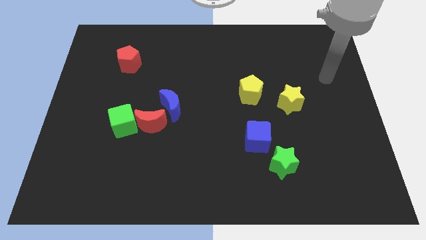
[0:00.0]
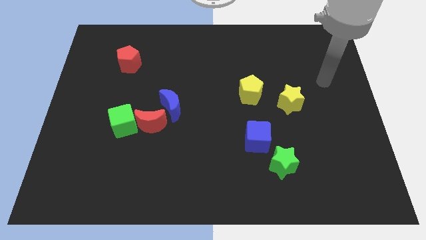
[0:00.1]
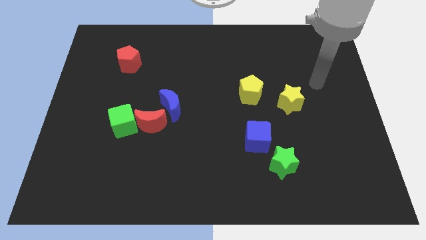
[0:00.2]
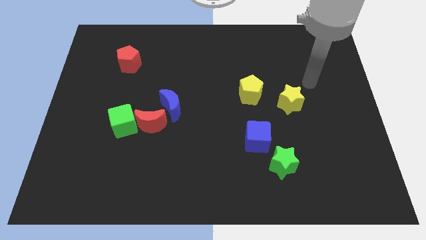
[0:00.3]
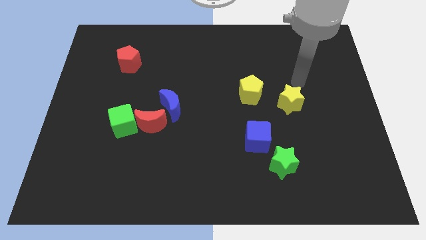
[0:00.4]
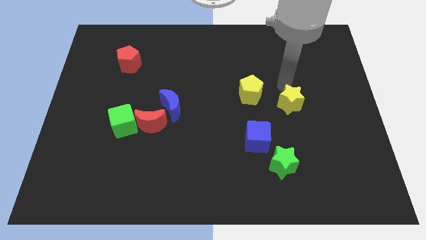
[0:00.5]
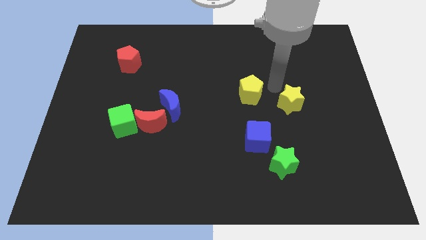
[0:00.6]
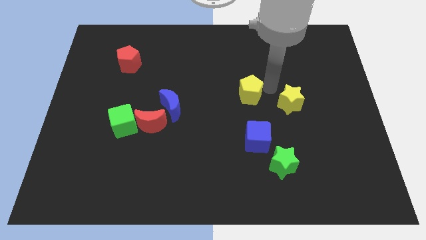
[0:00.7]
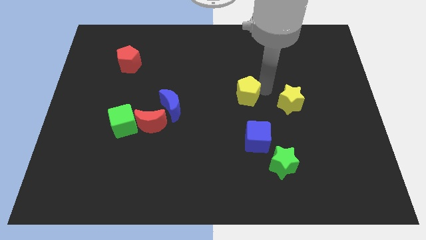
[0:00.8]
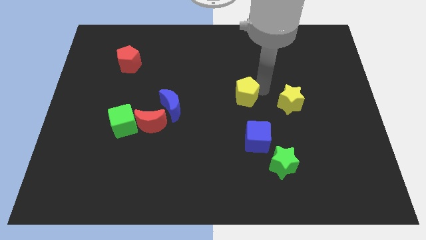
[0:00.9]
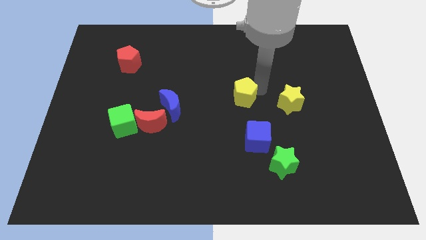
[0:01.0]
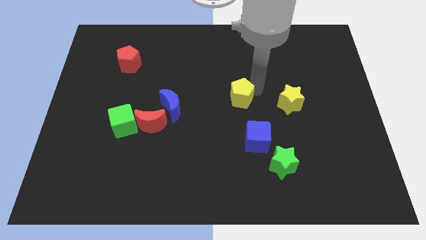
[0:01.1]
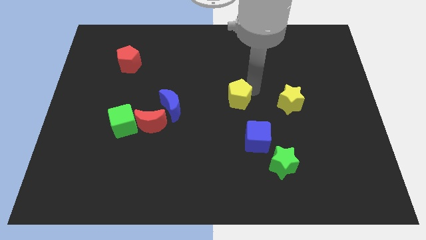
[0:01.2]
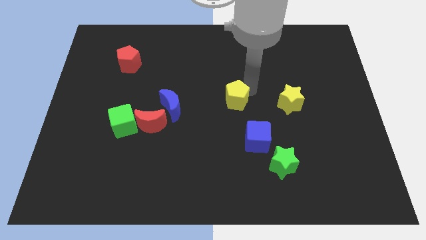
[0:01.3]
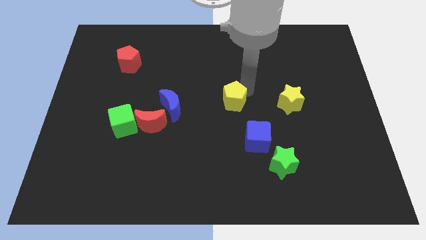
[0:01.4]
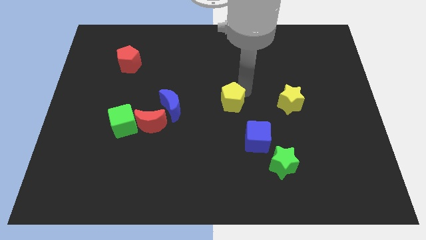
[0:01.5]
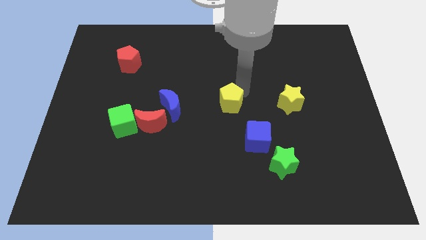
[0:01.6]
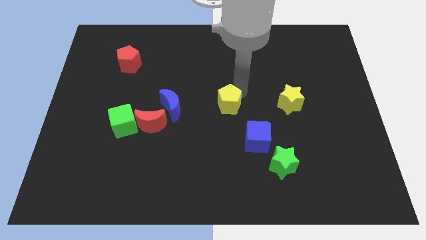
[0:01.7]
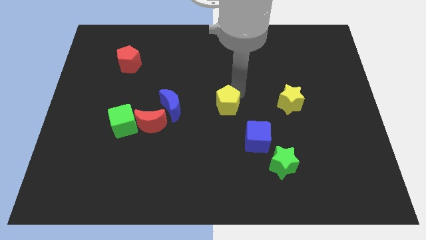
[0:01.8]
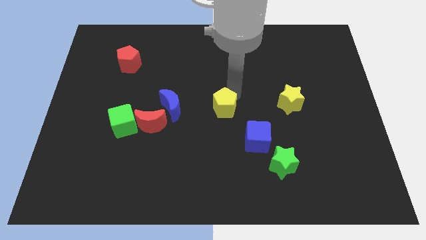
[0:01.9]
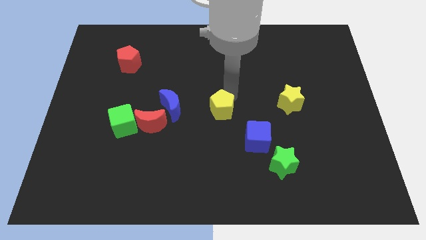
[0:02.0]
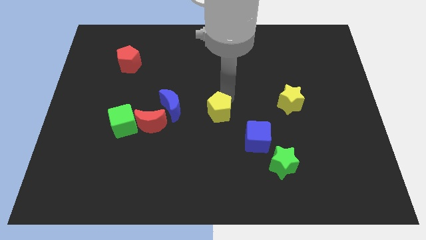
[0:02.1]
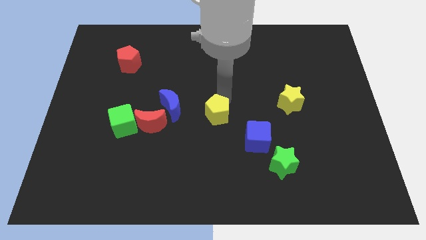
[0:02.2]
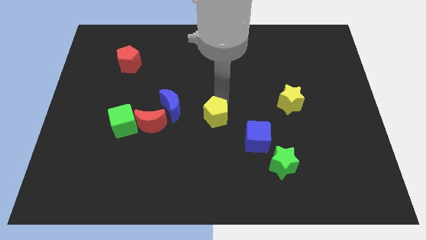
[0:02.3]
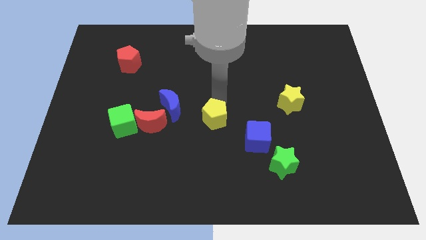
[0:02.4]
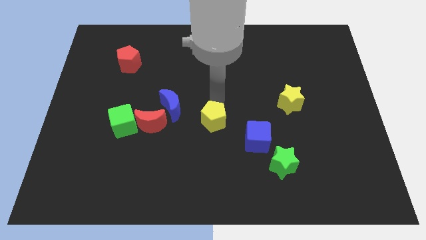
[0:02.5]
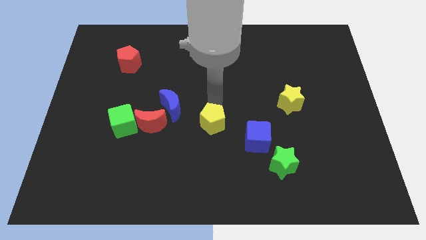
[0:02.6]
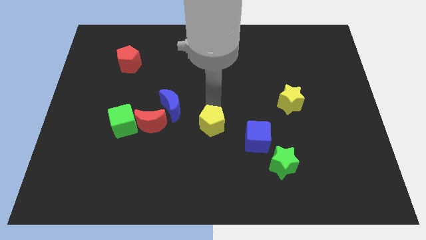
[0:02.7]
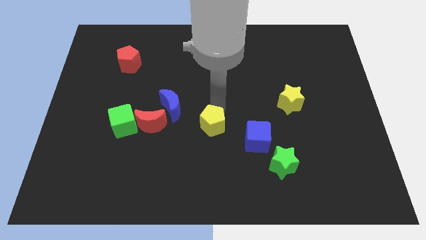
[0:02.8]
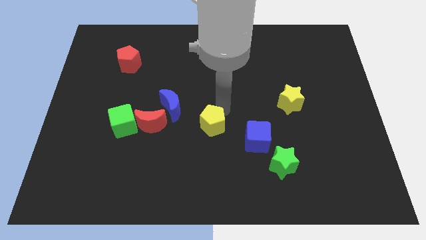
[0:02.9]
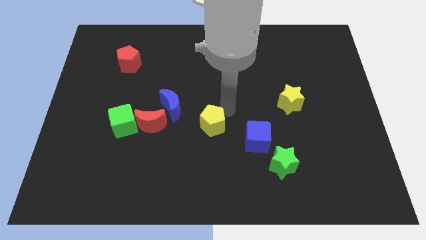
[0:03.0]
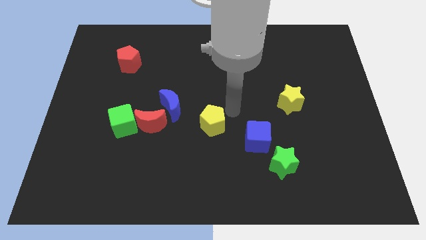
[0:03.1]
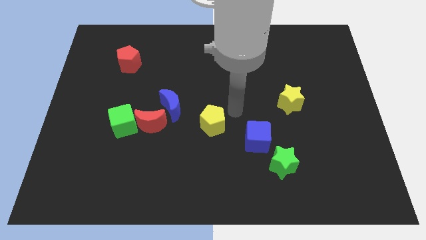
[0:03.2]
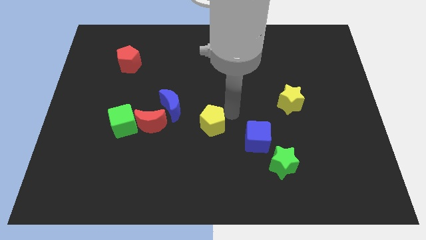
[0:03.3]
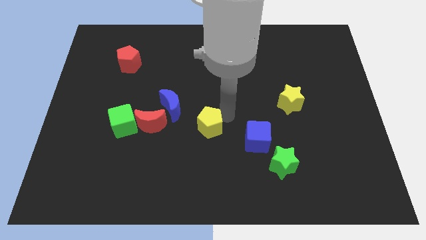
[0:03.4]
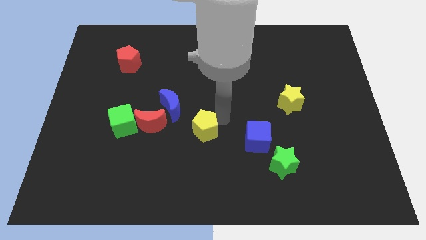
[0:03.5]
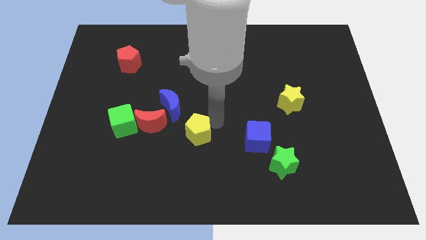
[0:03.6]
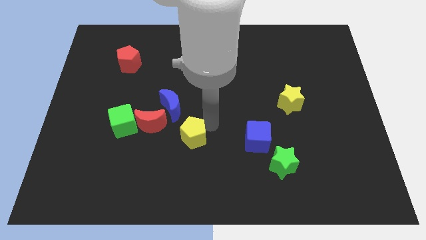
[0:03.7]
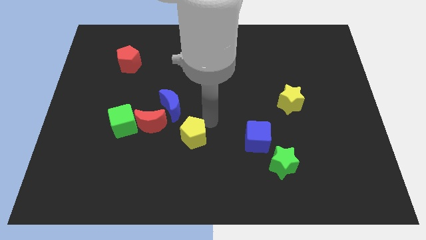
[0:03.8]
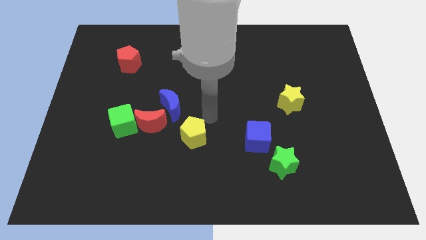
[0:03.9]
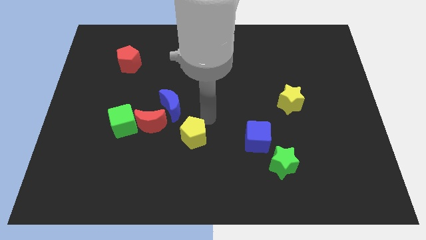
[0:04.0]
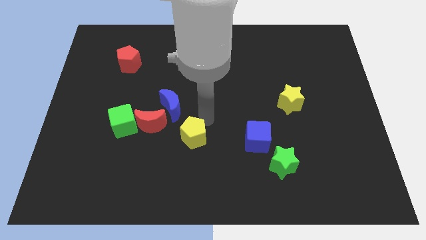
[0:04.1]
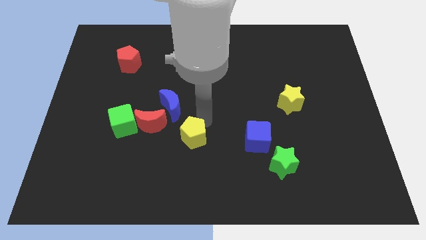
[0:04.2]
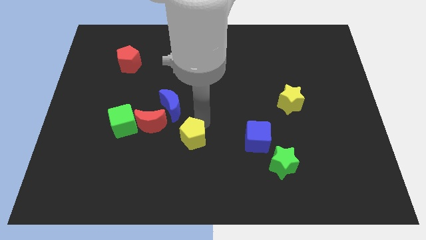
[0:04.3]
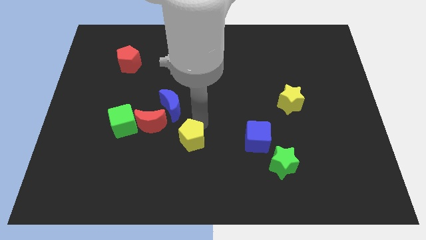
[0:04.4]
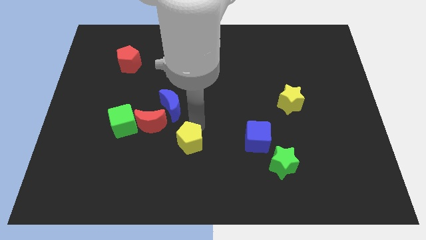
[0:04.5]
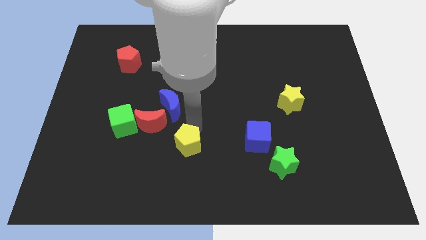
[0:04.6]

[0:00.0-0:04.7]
push the yellow pentagon downwards and left

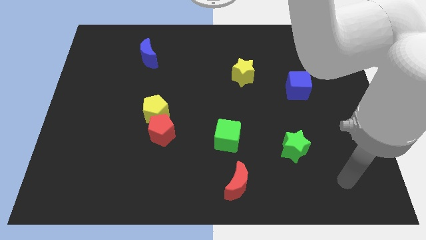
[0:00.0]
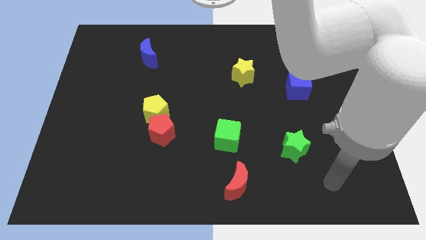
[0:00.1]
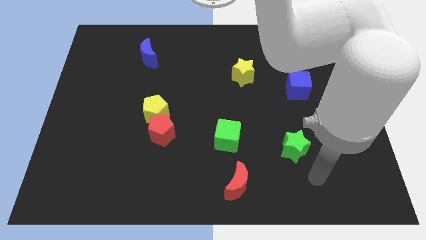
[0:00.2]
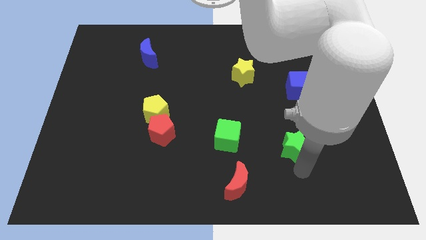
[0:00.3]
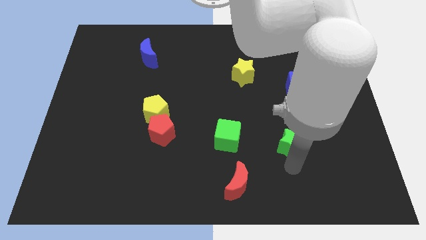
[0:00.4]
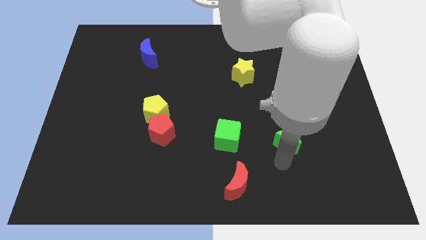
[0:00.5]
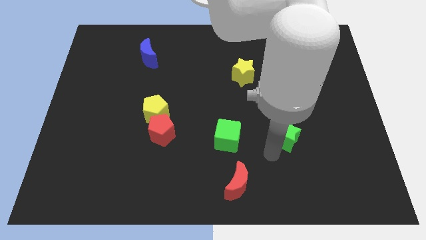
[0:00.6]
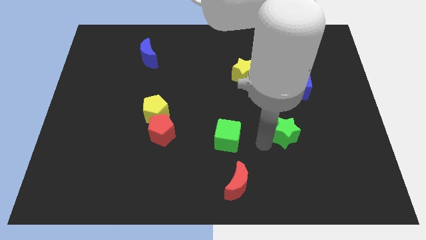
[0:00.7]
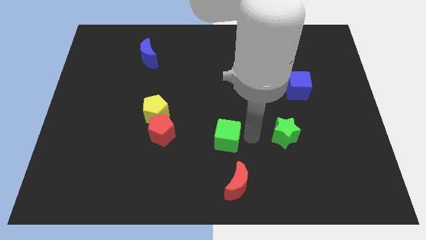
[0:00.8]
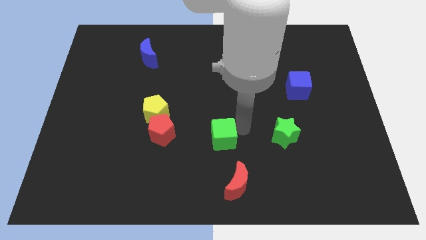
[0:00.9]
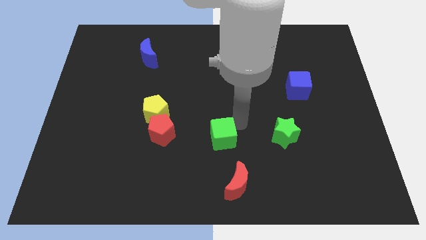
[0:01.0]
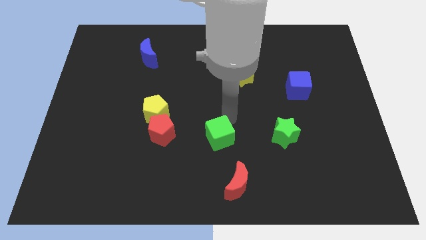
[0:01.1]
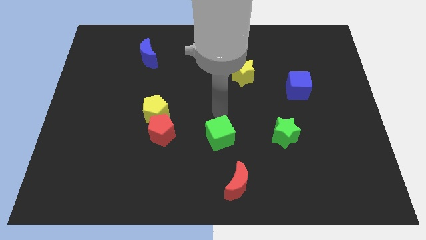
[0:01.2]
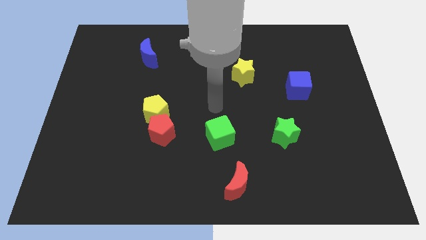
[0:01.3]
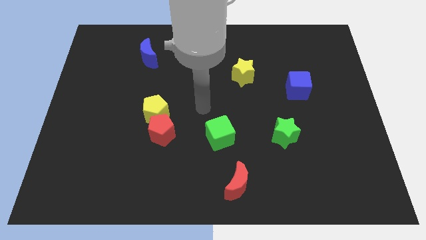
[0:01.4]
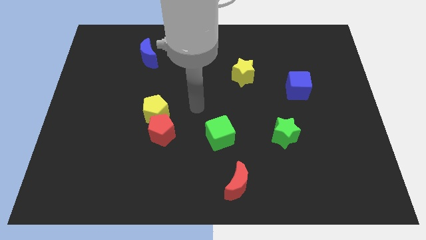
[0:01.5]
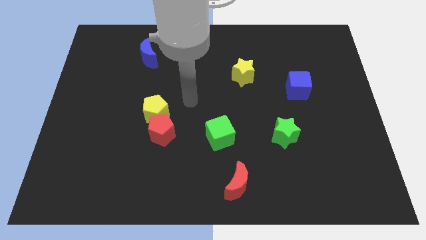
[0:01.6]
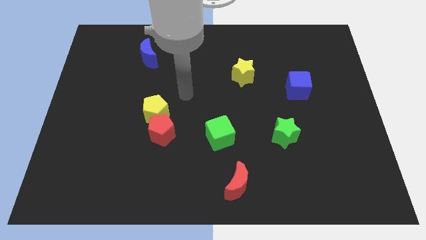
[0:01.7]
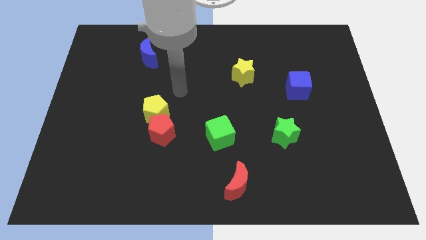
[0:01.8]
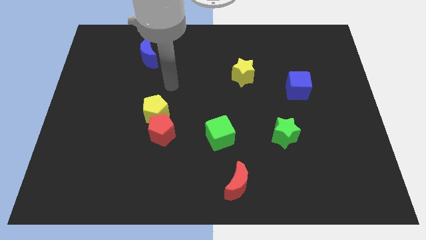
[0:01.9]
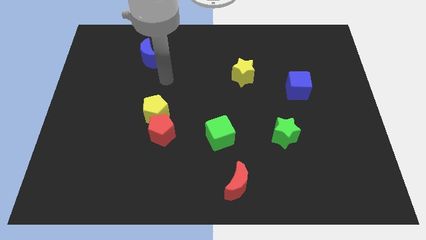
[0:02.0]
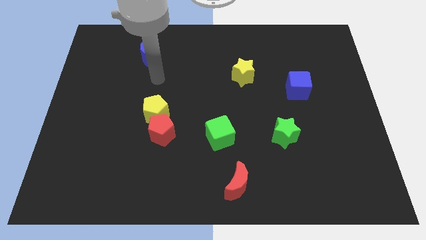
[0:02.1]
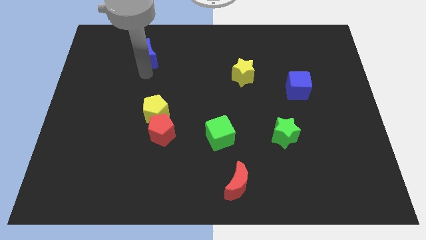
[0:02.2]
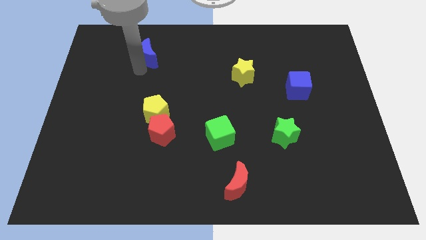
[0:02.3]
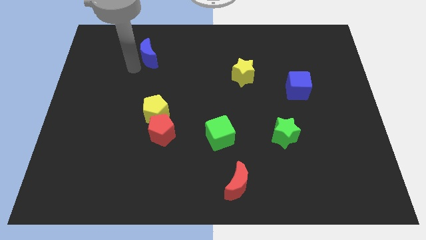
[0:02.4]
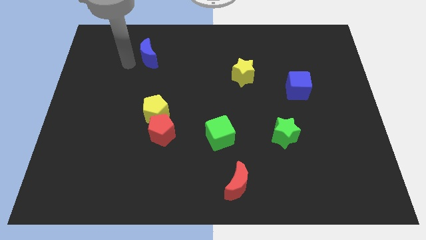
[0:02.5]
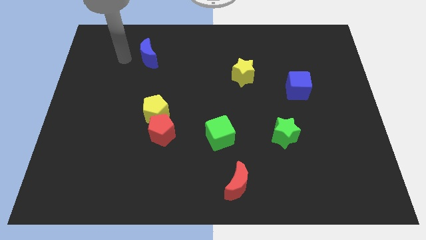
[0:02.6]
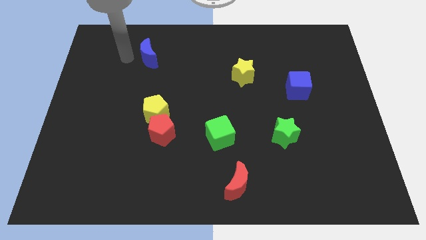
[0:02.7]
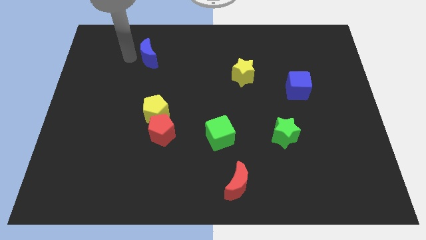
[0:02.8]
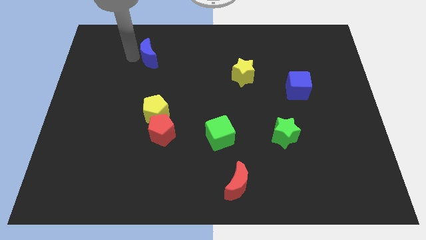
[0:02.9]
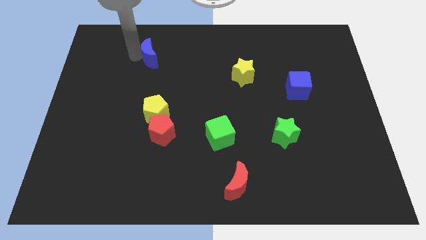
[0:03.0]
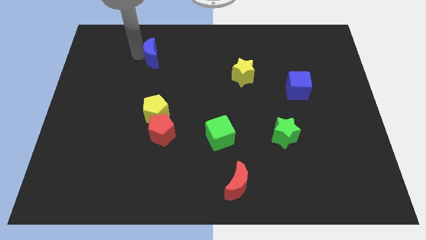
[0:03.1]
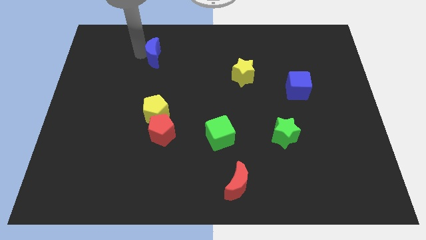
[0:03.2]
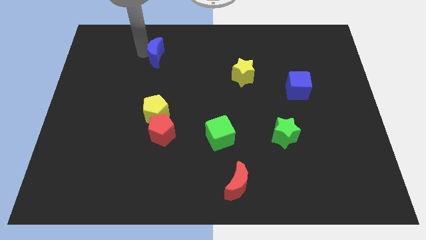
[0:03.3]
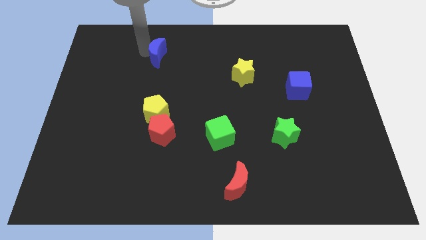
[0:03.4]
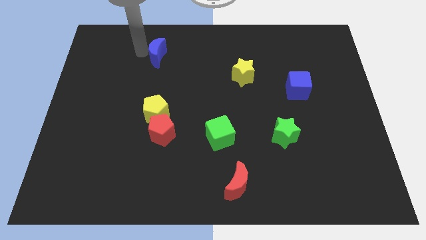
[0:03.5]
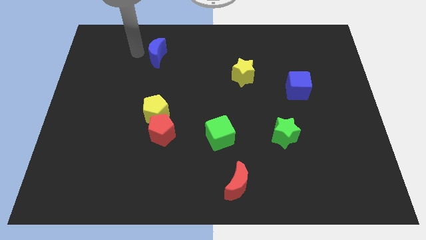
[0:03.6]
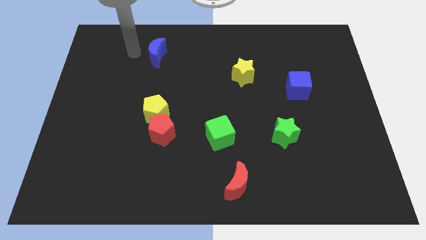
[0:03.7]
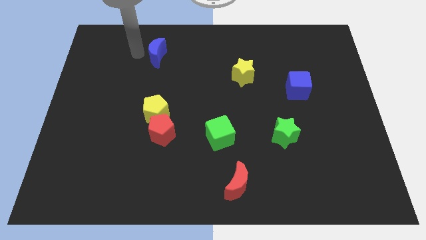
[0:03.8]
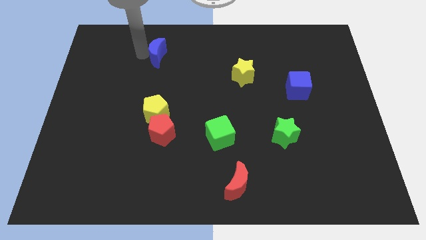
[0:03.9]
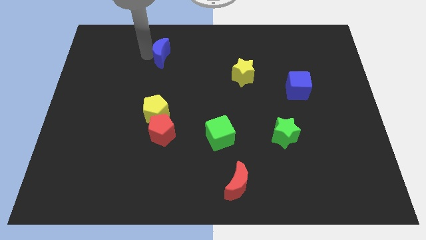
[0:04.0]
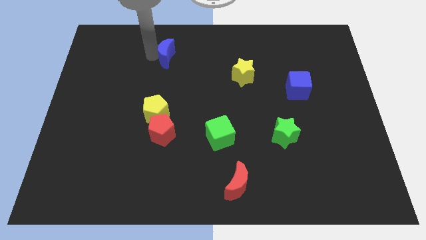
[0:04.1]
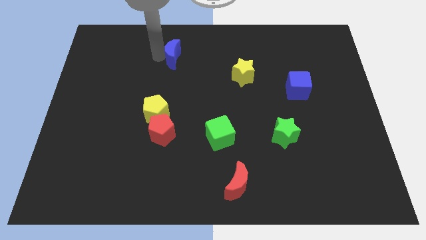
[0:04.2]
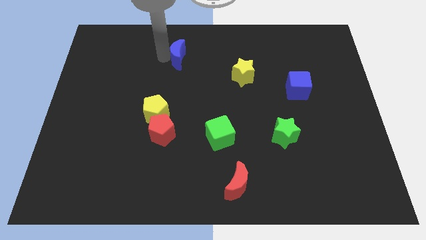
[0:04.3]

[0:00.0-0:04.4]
move the blue moon to the right a bit
